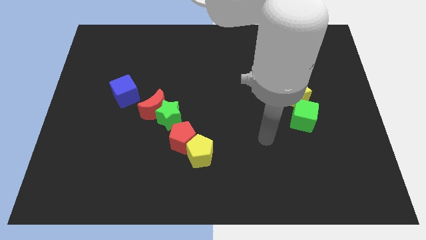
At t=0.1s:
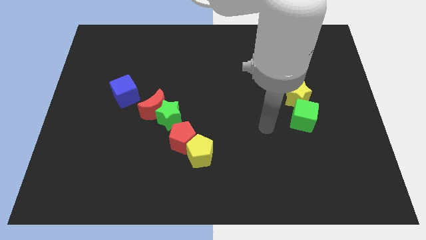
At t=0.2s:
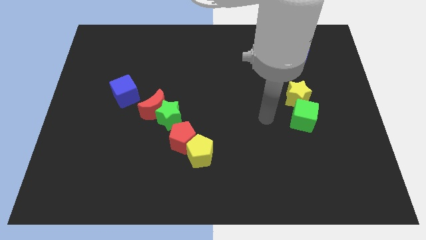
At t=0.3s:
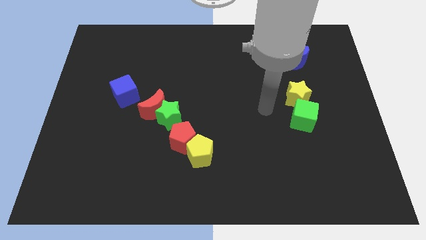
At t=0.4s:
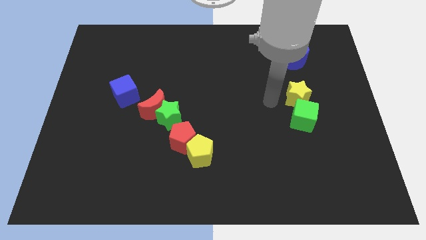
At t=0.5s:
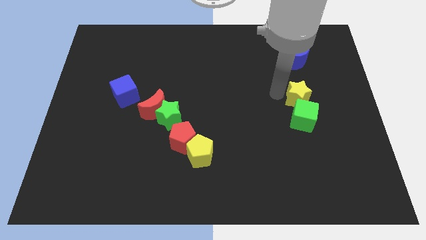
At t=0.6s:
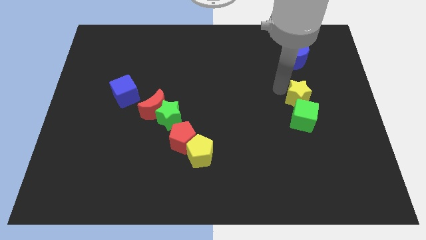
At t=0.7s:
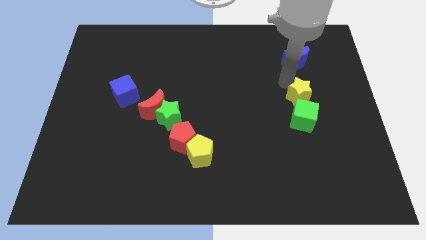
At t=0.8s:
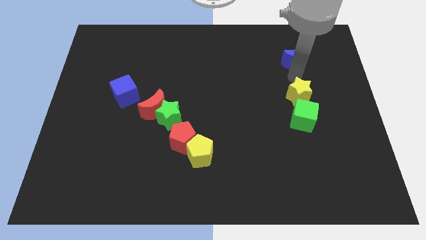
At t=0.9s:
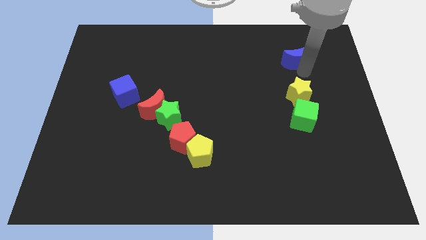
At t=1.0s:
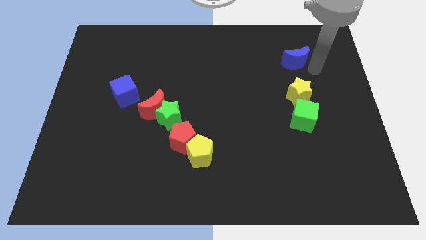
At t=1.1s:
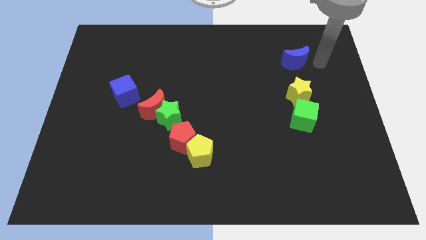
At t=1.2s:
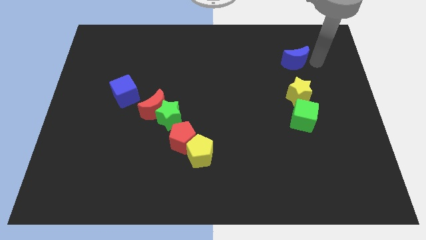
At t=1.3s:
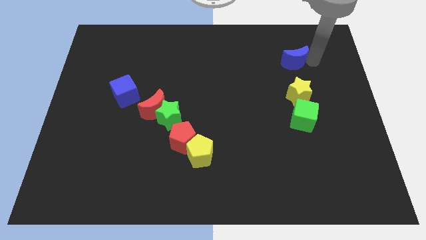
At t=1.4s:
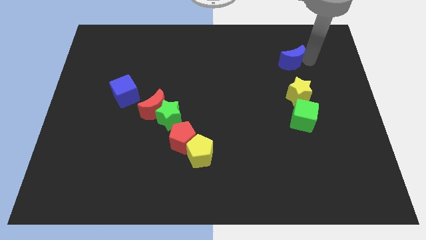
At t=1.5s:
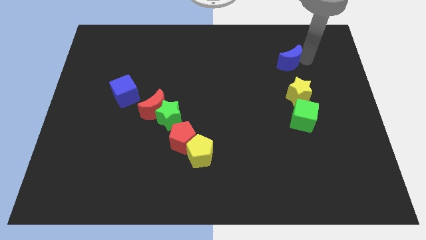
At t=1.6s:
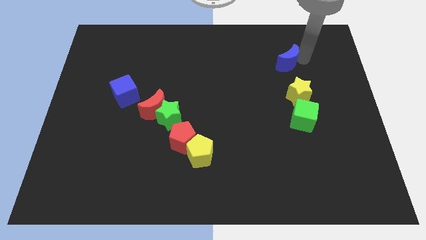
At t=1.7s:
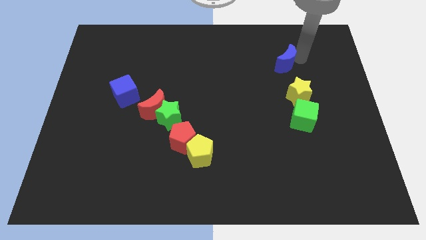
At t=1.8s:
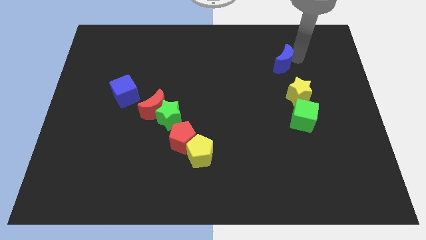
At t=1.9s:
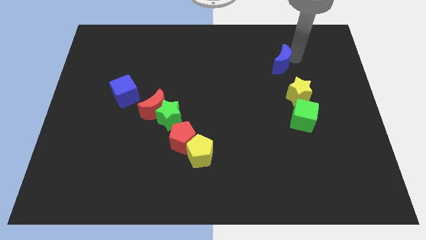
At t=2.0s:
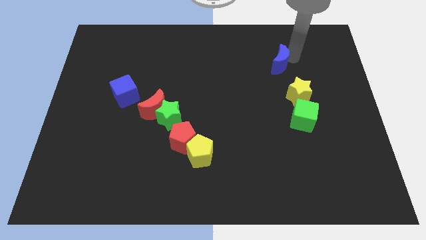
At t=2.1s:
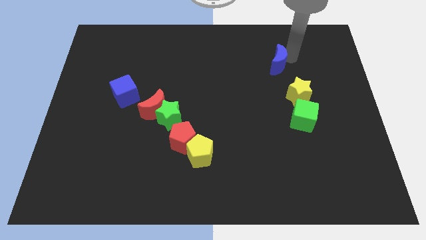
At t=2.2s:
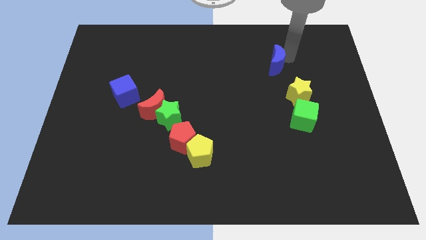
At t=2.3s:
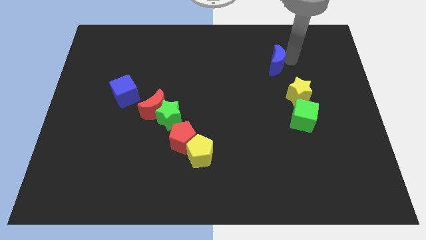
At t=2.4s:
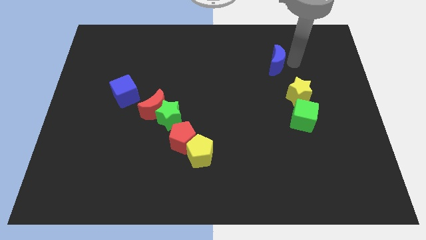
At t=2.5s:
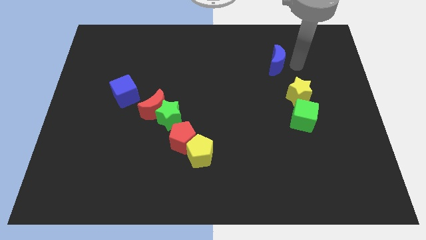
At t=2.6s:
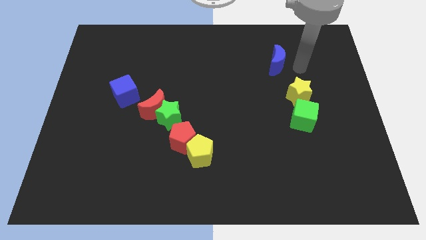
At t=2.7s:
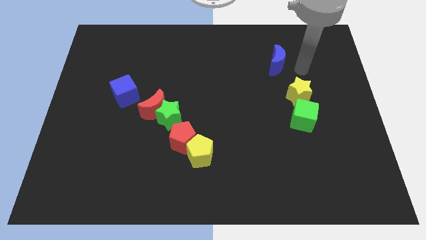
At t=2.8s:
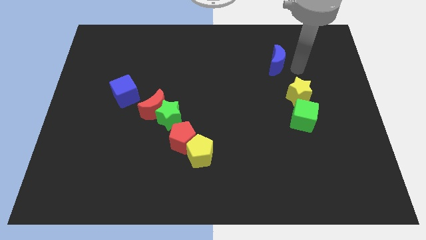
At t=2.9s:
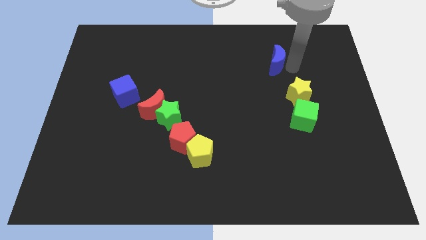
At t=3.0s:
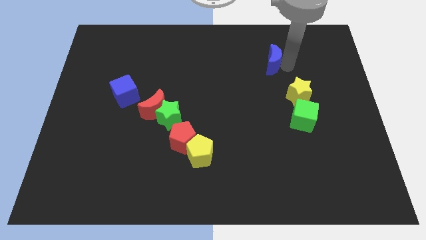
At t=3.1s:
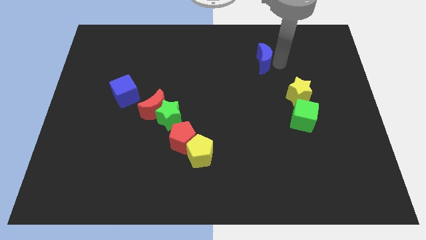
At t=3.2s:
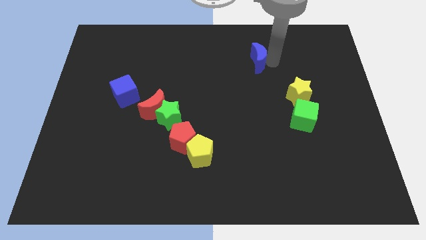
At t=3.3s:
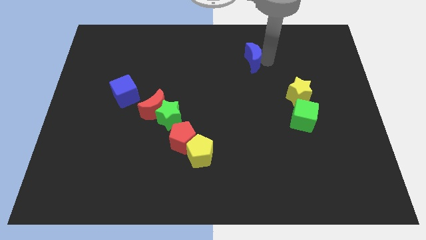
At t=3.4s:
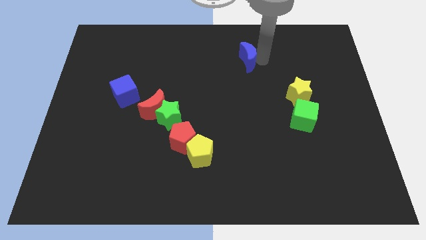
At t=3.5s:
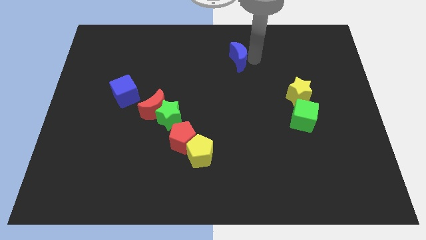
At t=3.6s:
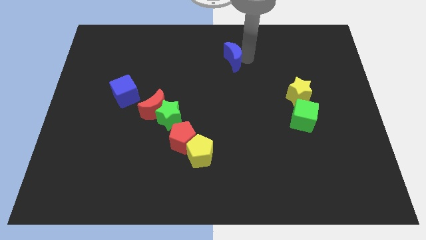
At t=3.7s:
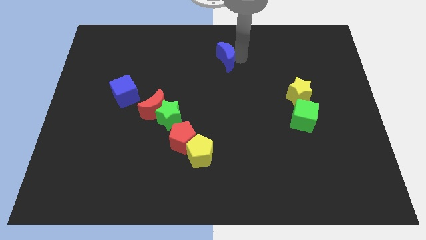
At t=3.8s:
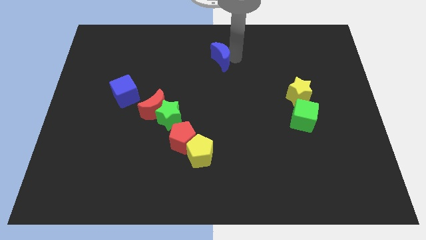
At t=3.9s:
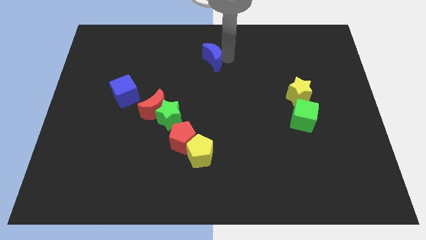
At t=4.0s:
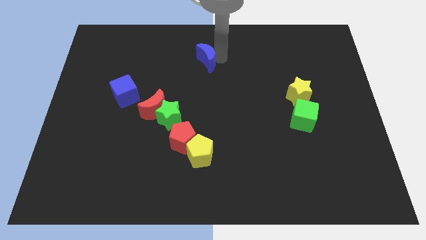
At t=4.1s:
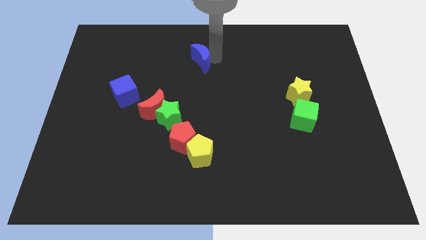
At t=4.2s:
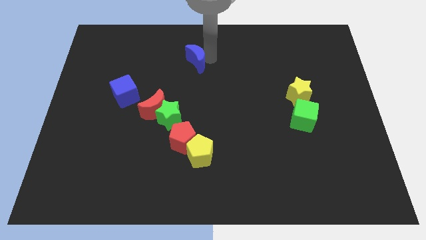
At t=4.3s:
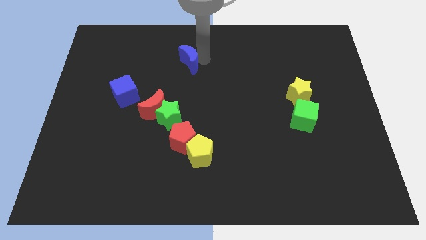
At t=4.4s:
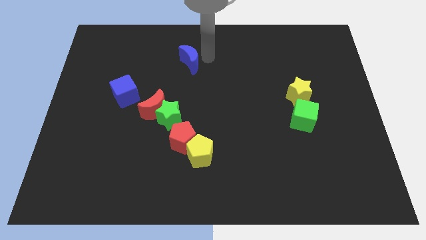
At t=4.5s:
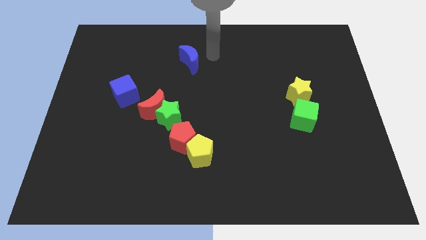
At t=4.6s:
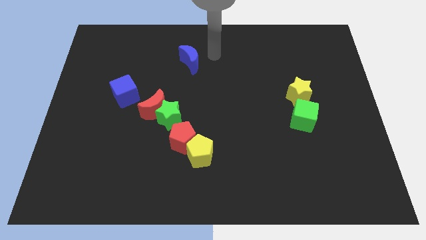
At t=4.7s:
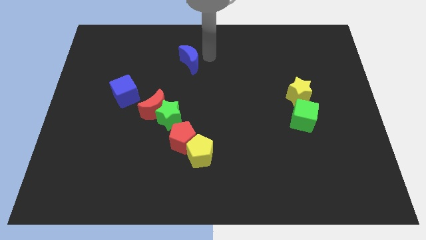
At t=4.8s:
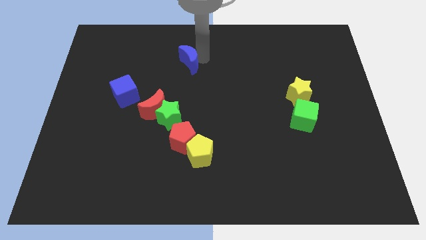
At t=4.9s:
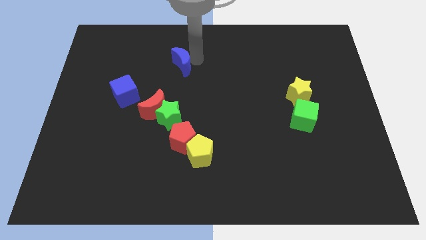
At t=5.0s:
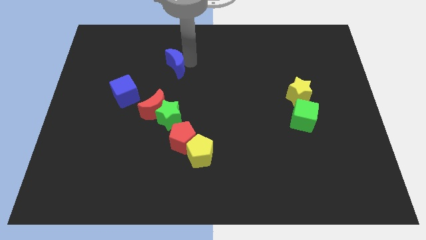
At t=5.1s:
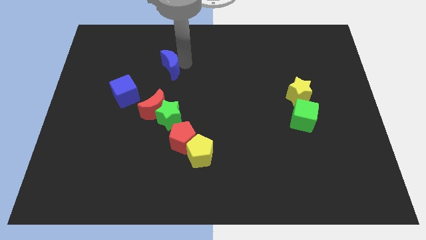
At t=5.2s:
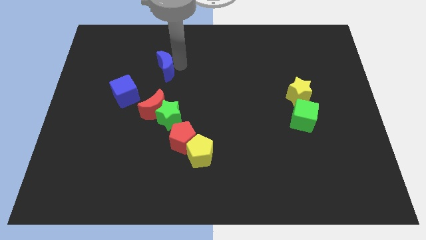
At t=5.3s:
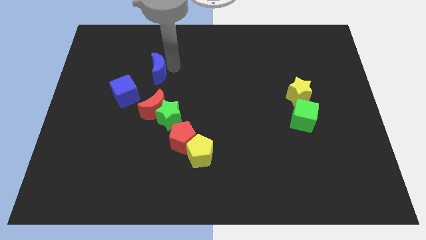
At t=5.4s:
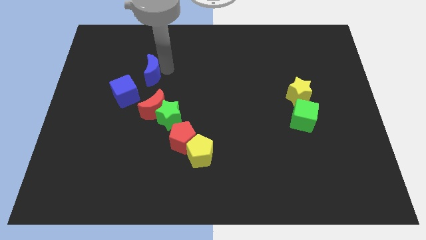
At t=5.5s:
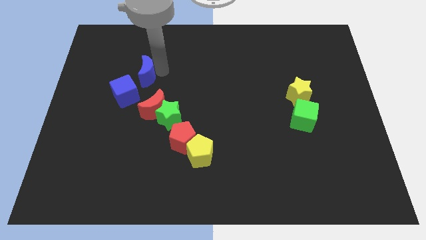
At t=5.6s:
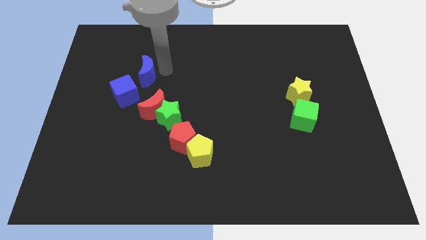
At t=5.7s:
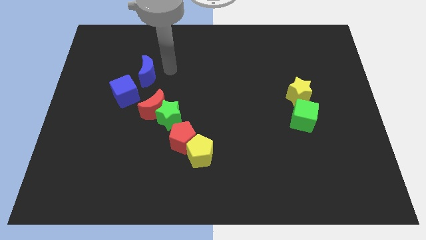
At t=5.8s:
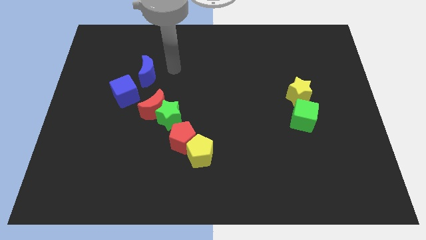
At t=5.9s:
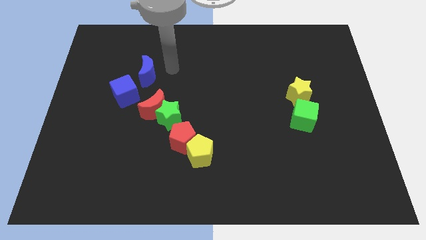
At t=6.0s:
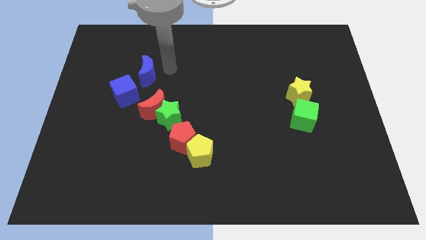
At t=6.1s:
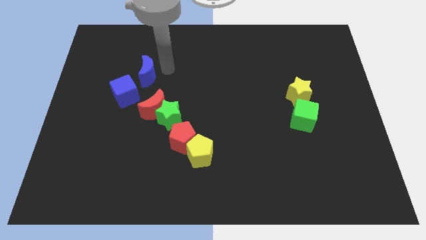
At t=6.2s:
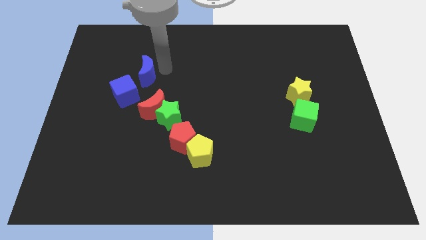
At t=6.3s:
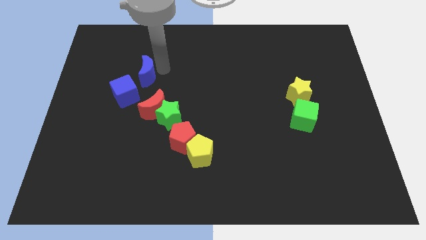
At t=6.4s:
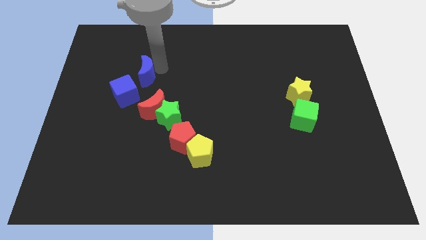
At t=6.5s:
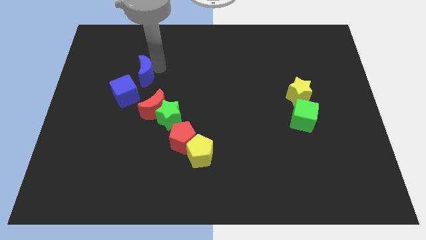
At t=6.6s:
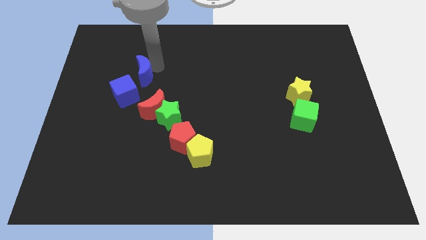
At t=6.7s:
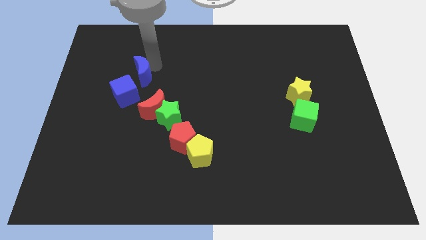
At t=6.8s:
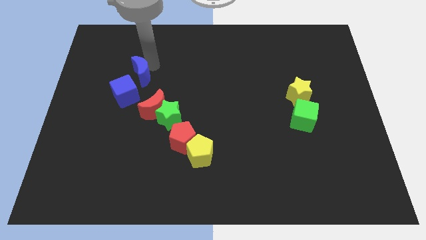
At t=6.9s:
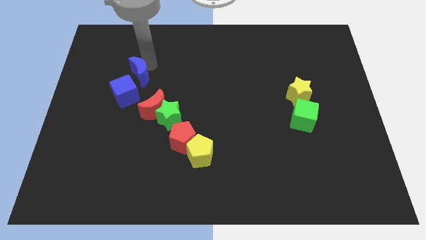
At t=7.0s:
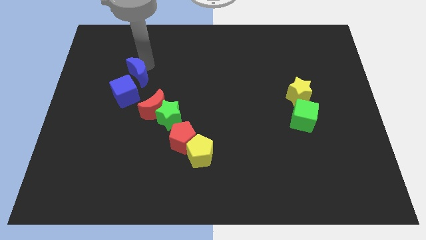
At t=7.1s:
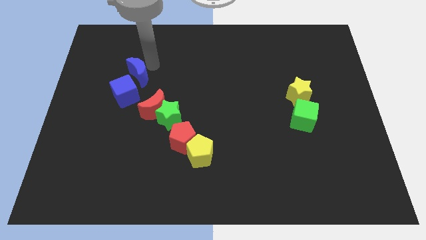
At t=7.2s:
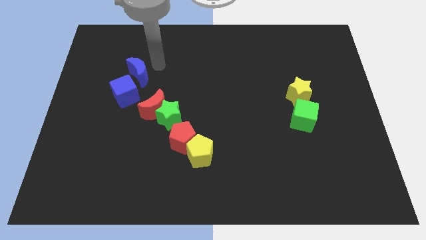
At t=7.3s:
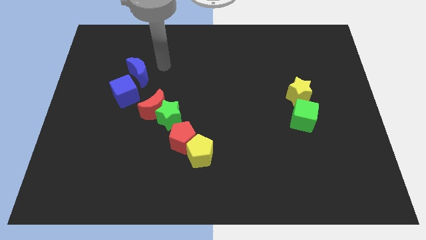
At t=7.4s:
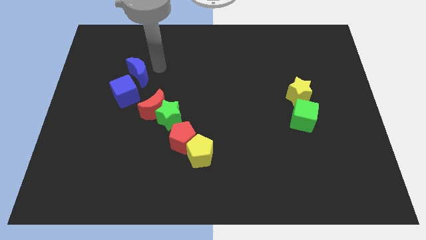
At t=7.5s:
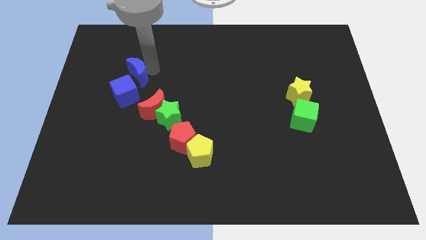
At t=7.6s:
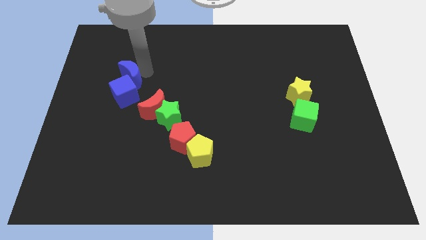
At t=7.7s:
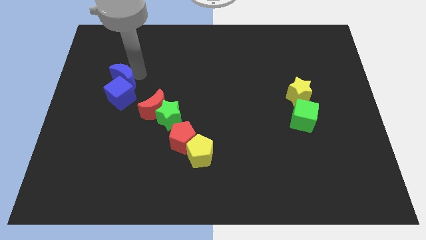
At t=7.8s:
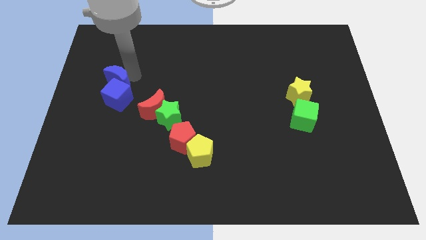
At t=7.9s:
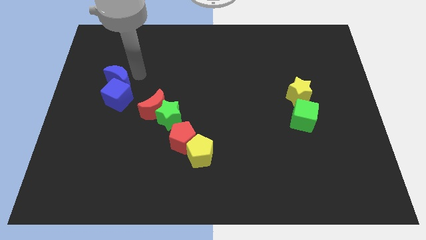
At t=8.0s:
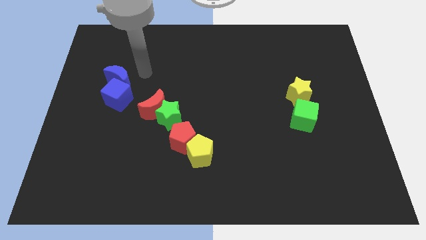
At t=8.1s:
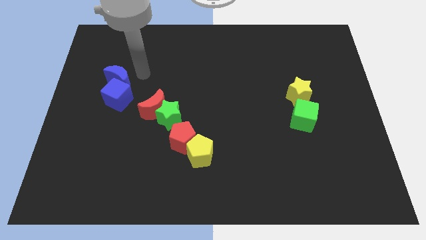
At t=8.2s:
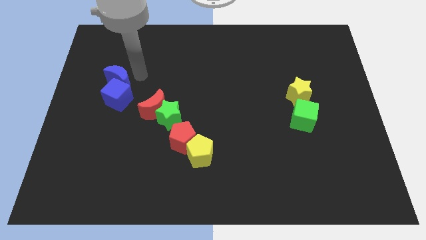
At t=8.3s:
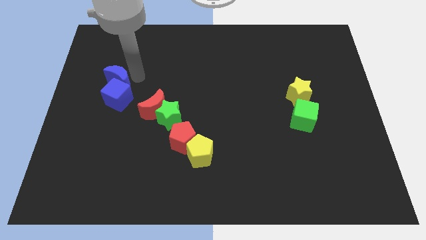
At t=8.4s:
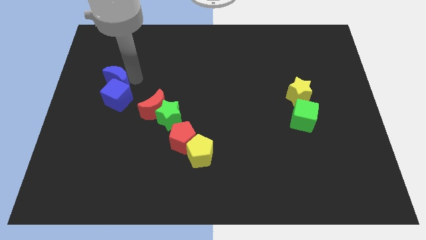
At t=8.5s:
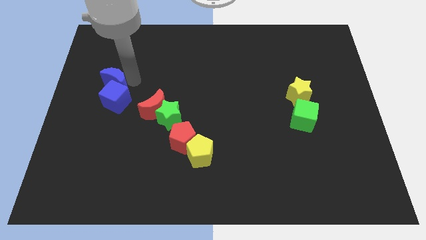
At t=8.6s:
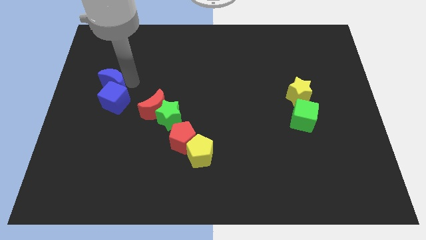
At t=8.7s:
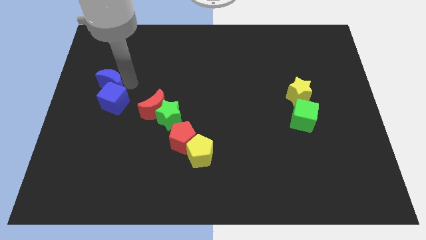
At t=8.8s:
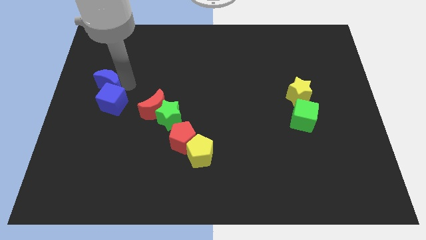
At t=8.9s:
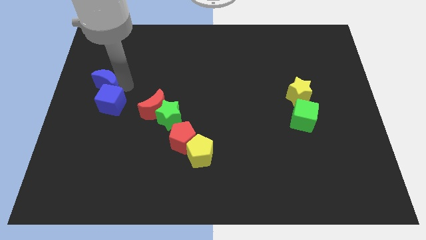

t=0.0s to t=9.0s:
put the blue moon to the left side
